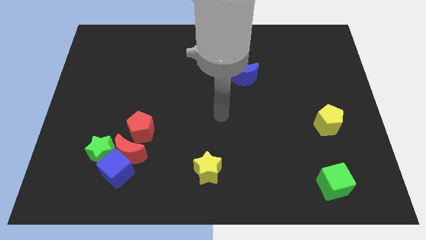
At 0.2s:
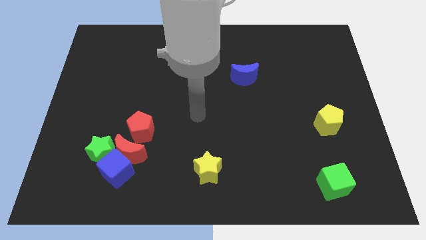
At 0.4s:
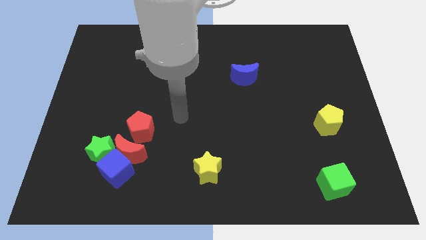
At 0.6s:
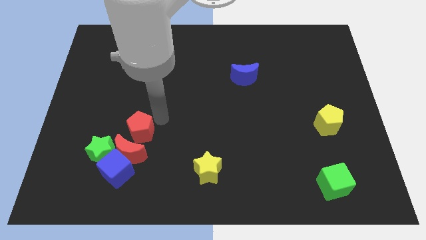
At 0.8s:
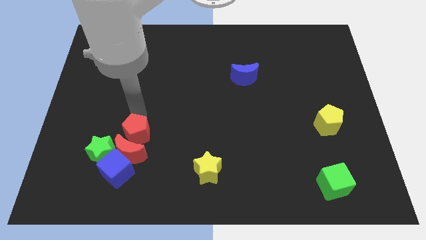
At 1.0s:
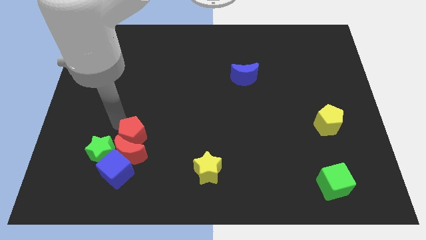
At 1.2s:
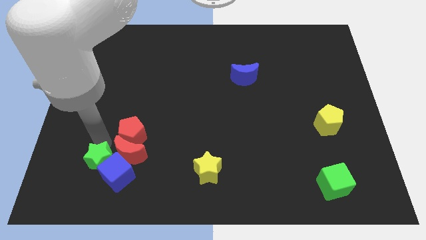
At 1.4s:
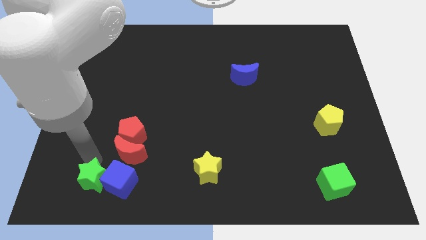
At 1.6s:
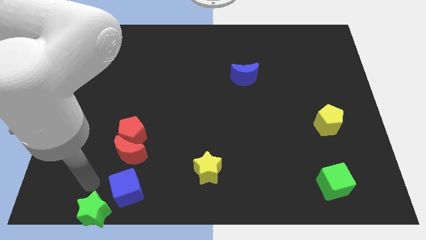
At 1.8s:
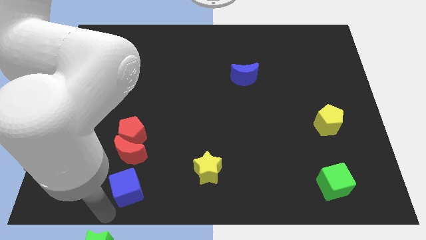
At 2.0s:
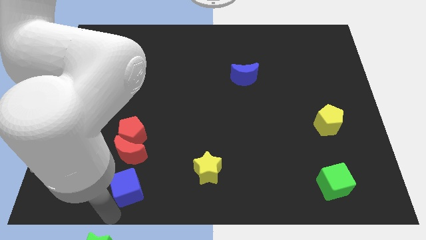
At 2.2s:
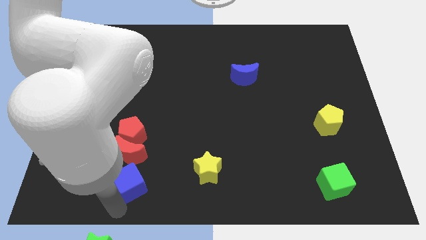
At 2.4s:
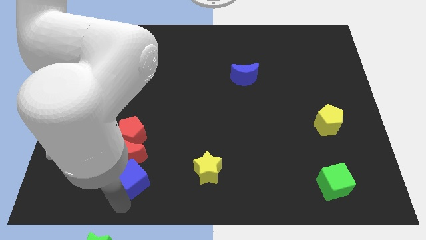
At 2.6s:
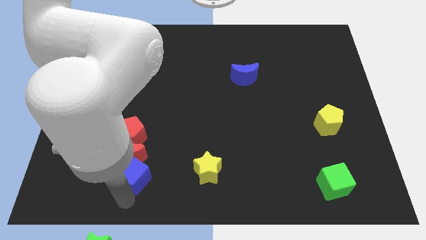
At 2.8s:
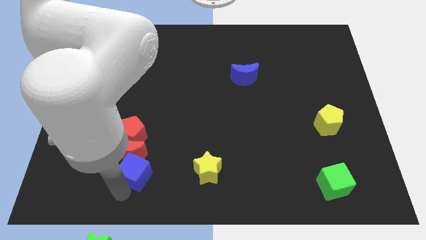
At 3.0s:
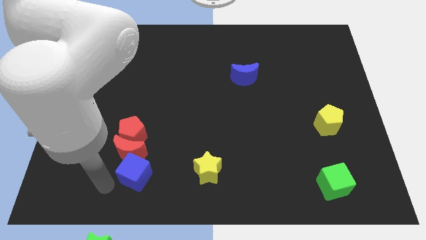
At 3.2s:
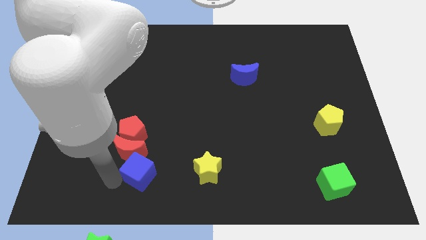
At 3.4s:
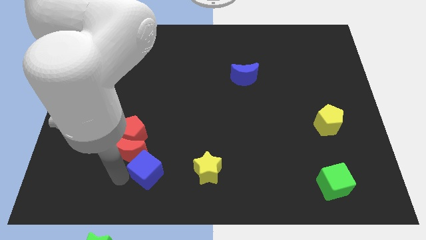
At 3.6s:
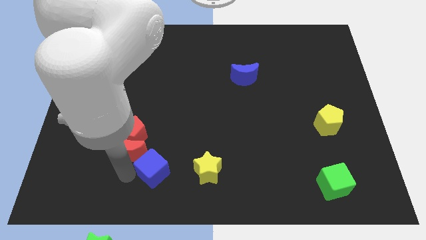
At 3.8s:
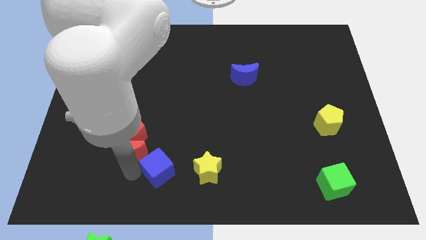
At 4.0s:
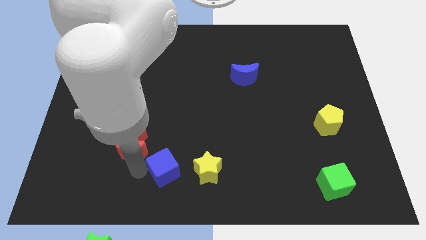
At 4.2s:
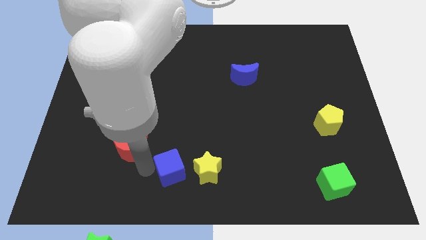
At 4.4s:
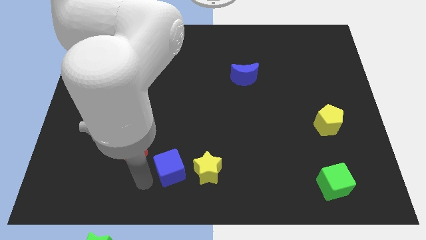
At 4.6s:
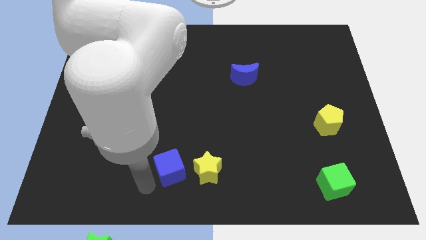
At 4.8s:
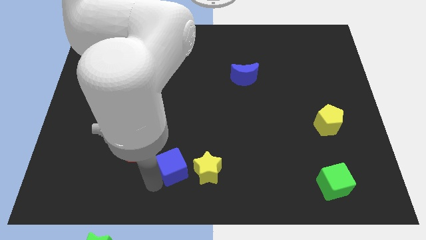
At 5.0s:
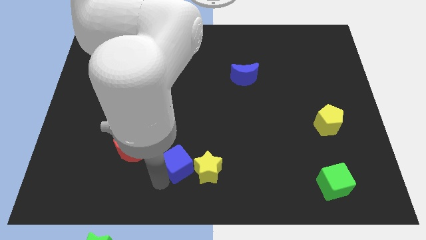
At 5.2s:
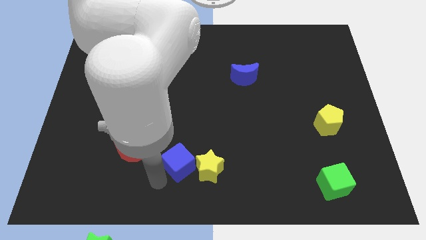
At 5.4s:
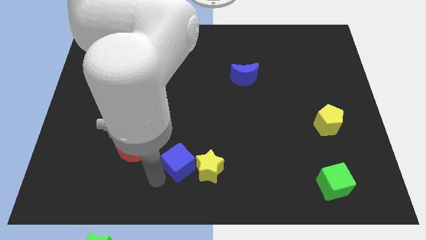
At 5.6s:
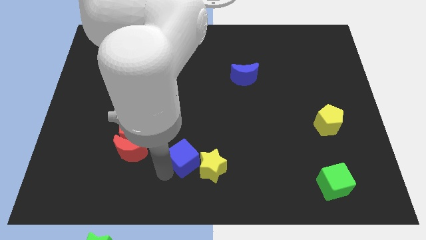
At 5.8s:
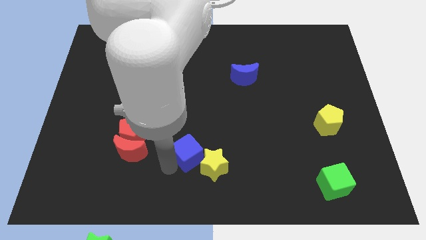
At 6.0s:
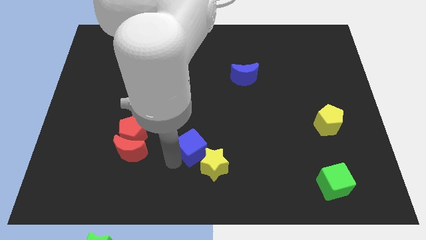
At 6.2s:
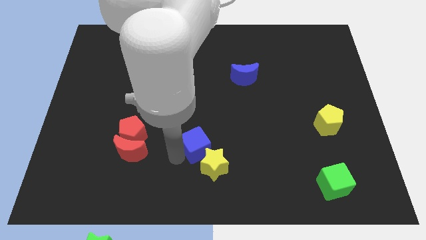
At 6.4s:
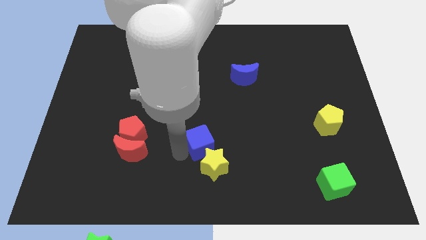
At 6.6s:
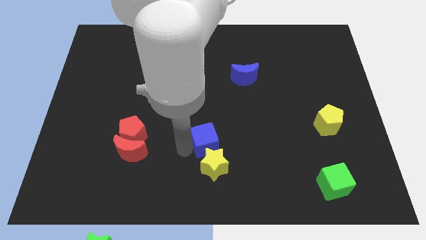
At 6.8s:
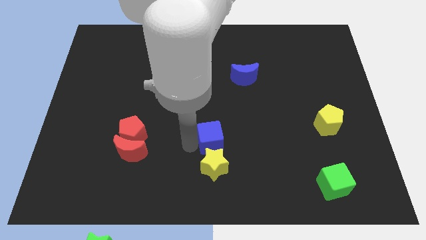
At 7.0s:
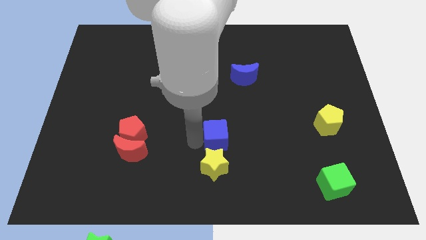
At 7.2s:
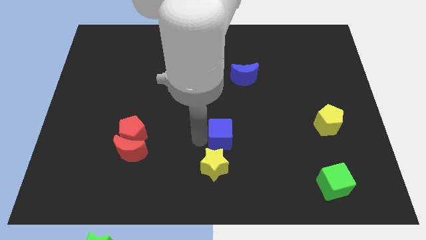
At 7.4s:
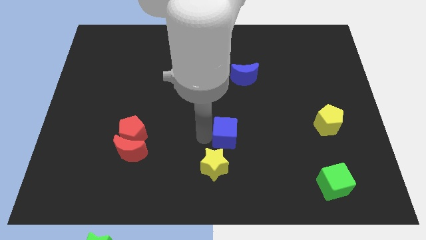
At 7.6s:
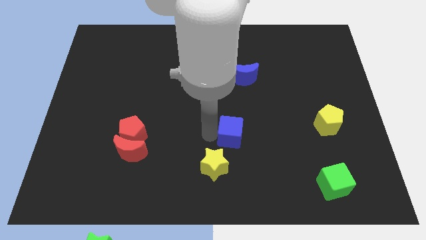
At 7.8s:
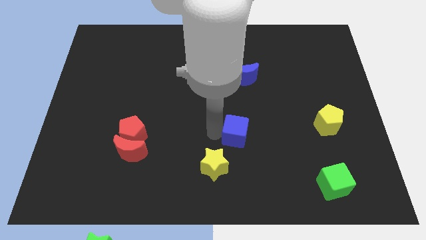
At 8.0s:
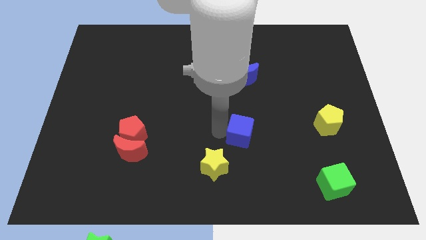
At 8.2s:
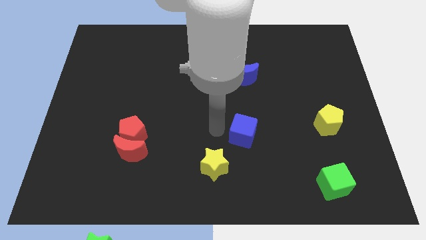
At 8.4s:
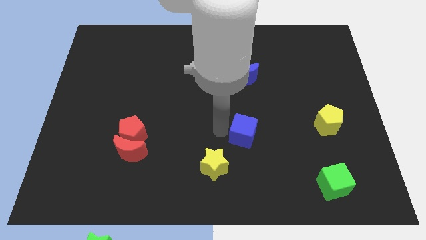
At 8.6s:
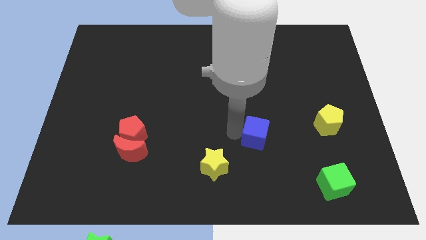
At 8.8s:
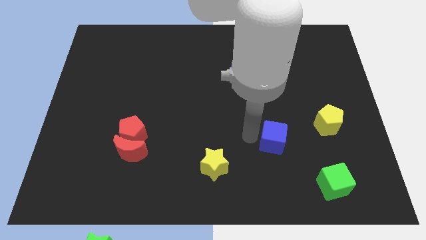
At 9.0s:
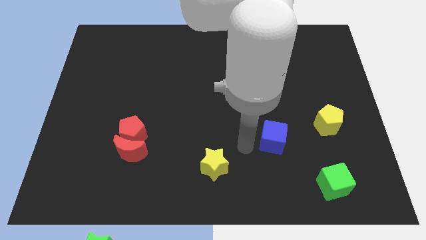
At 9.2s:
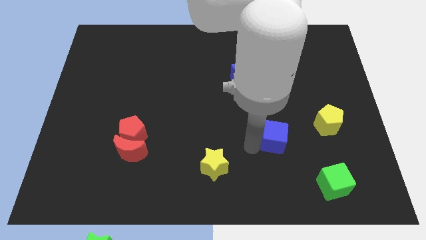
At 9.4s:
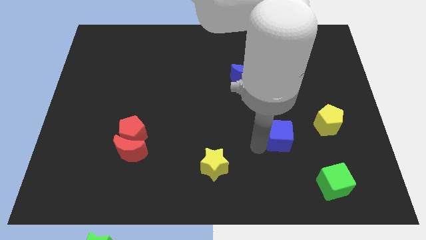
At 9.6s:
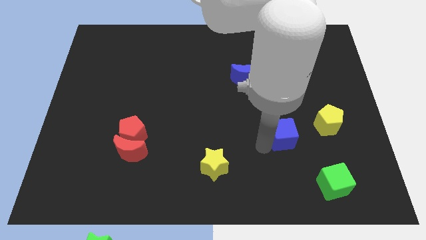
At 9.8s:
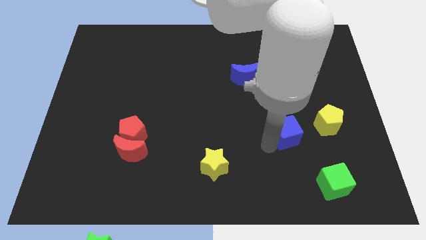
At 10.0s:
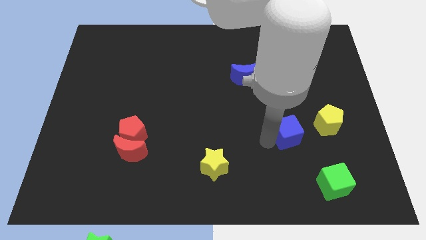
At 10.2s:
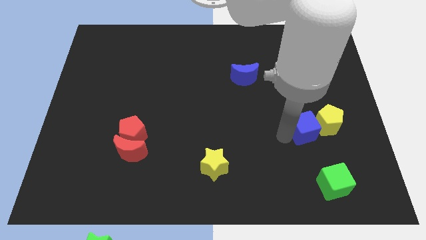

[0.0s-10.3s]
put the blue cube to the yellow pentagon

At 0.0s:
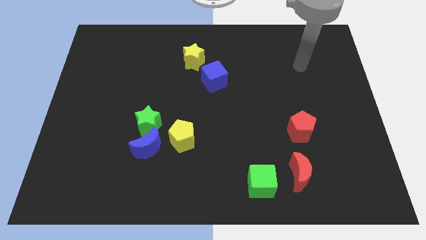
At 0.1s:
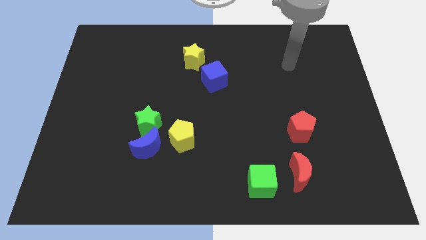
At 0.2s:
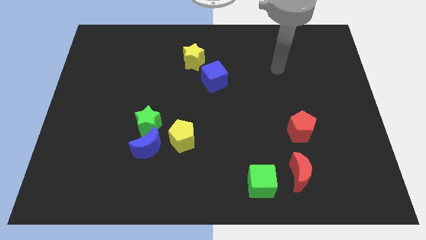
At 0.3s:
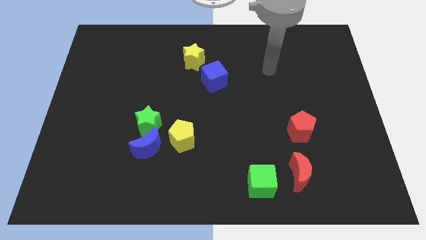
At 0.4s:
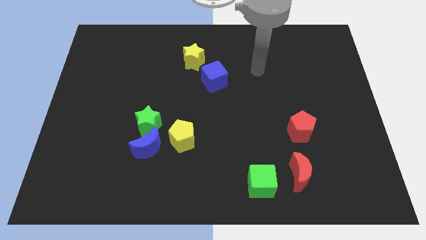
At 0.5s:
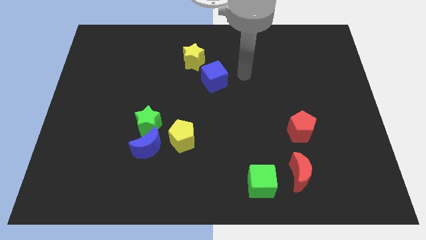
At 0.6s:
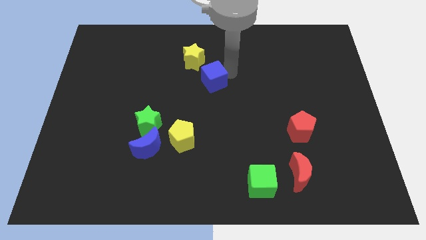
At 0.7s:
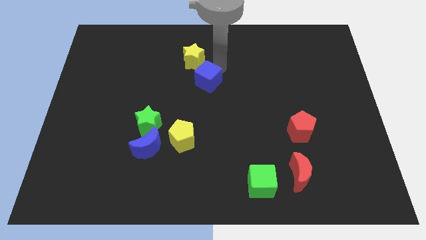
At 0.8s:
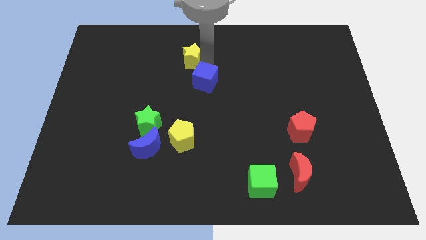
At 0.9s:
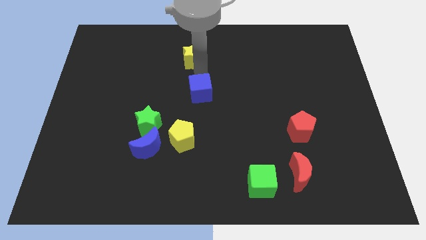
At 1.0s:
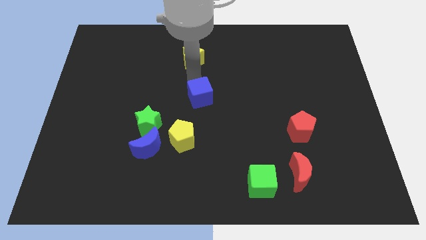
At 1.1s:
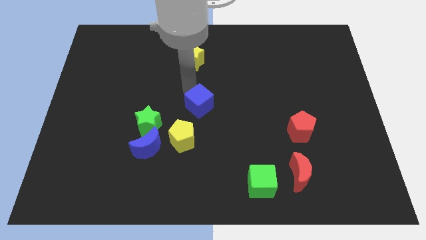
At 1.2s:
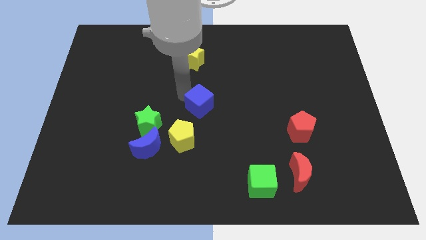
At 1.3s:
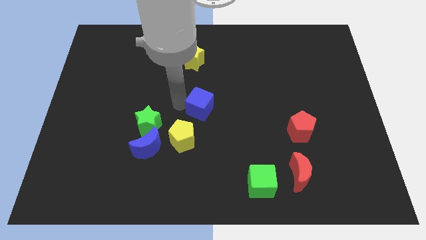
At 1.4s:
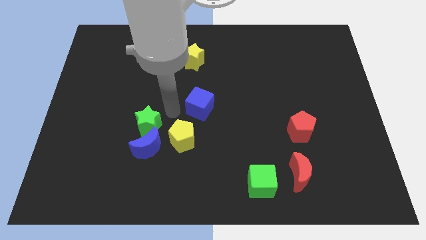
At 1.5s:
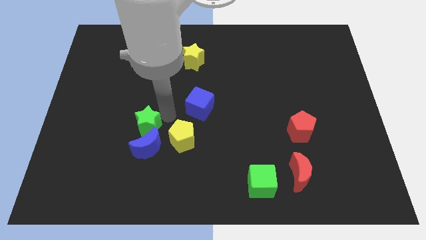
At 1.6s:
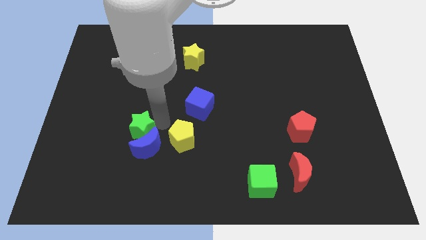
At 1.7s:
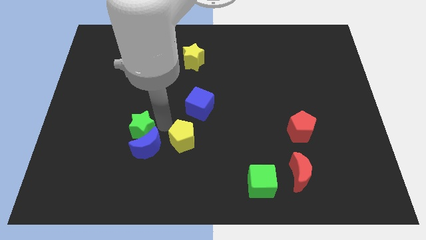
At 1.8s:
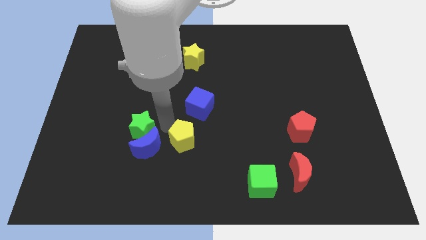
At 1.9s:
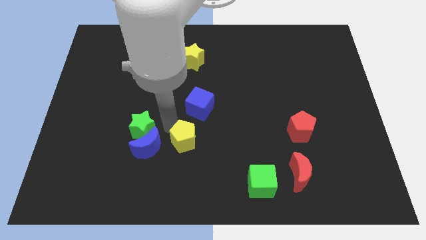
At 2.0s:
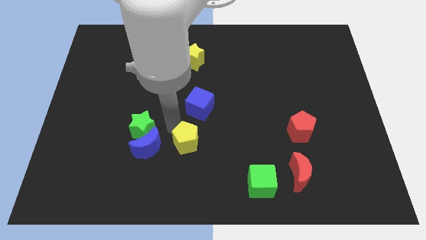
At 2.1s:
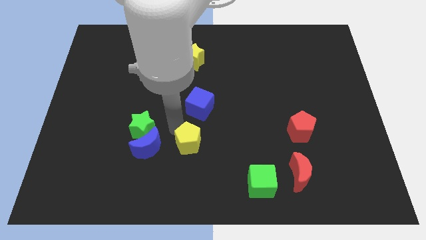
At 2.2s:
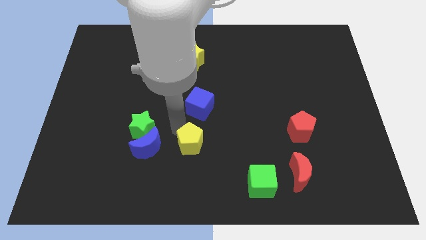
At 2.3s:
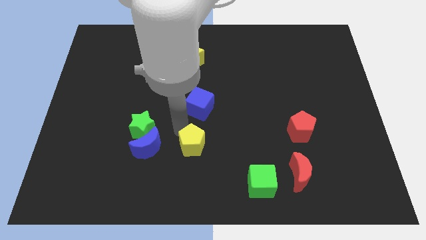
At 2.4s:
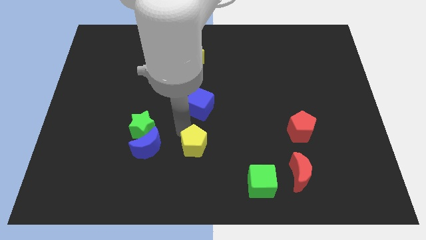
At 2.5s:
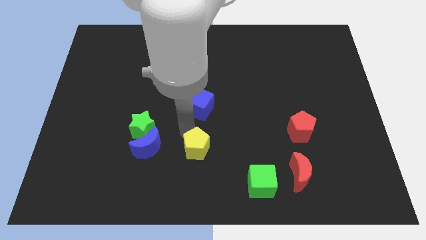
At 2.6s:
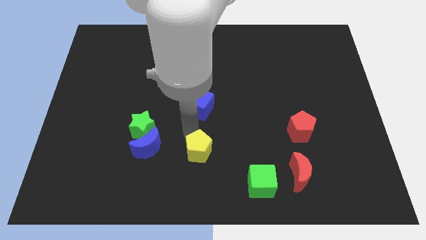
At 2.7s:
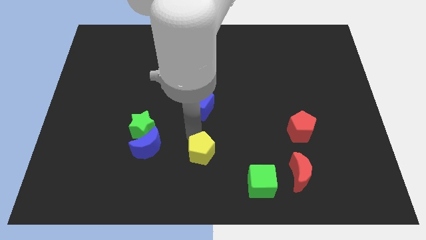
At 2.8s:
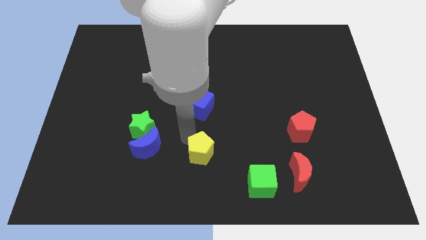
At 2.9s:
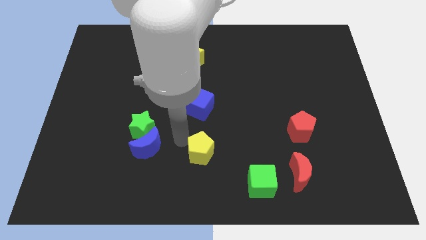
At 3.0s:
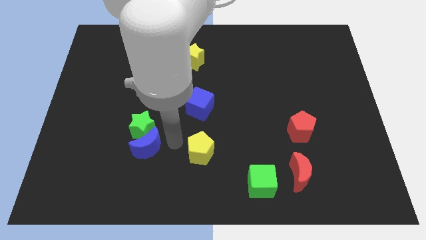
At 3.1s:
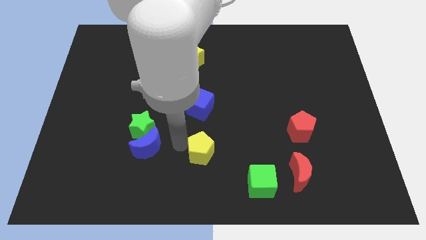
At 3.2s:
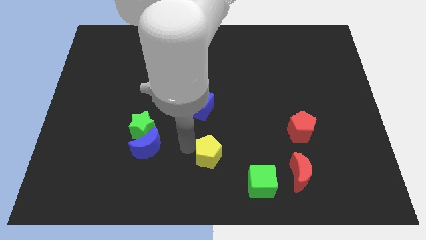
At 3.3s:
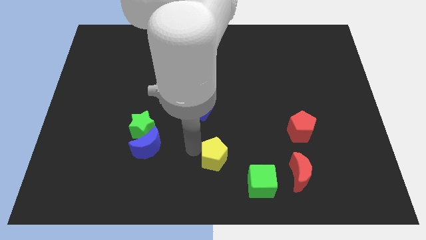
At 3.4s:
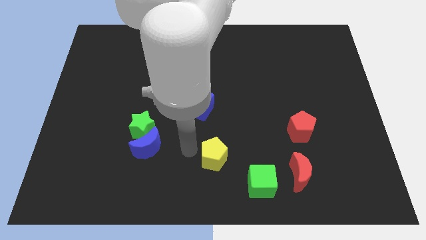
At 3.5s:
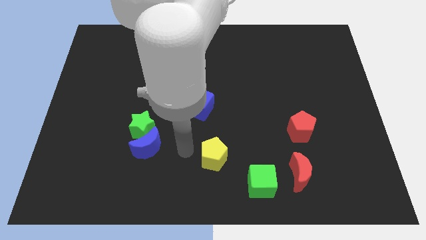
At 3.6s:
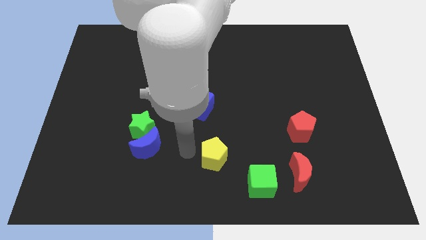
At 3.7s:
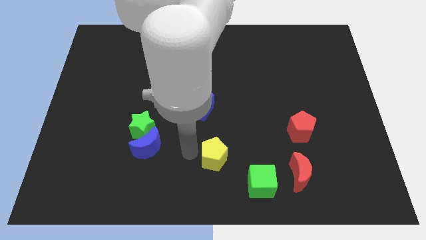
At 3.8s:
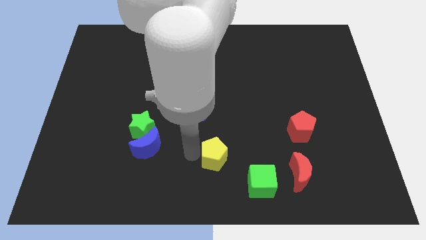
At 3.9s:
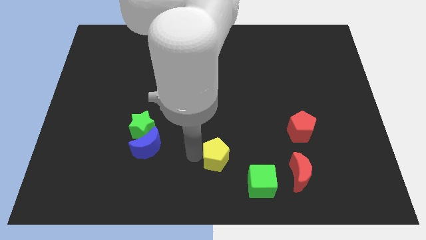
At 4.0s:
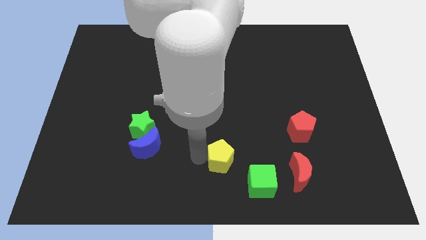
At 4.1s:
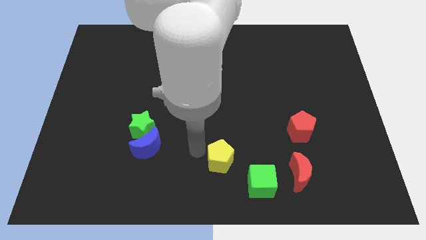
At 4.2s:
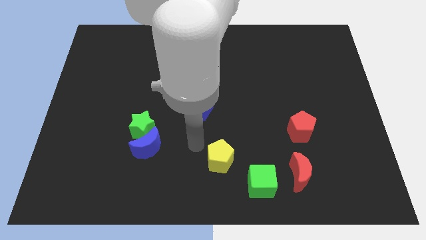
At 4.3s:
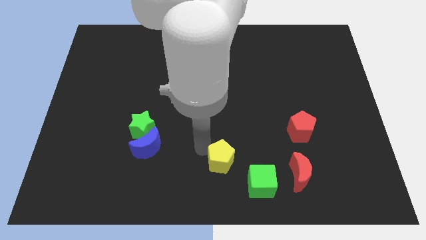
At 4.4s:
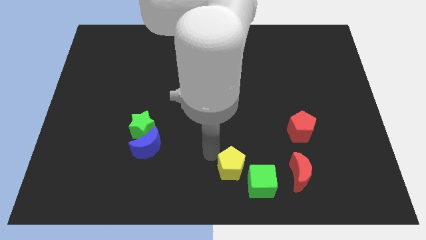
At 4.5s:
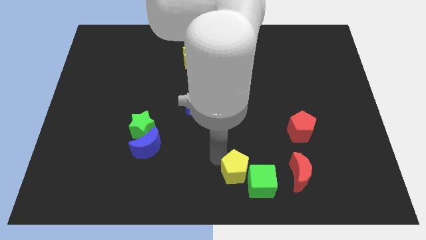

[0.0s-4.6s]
move the yellow pentagon next to the green cube
